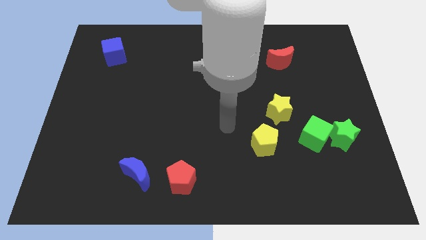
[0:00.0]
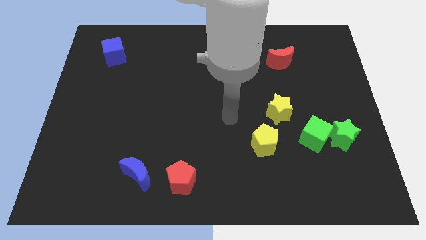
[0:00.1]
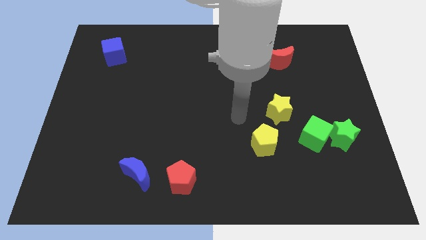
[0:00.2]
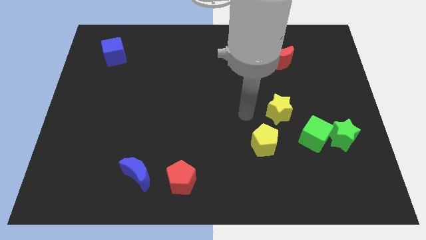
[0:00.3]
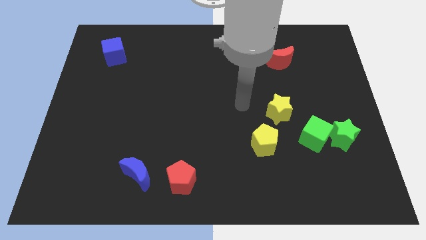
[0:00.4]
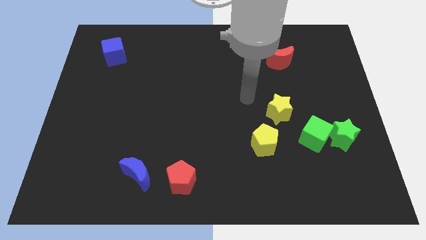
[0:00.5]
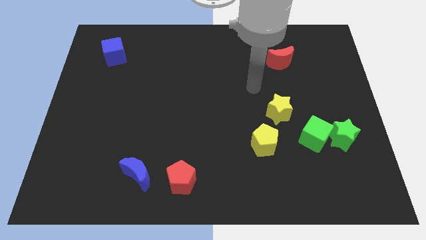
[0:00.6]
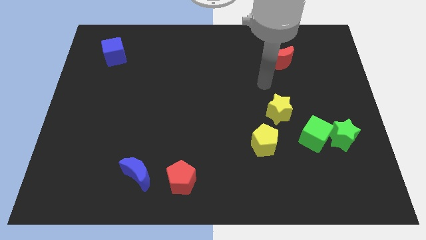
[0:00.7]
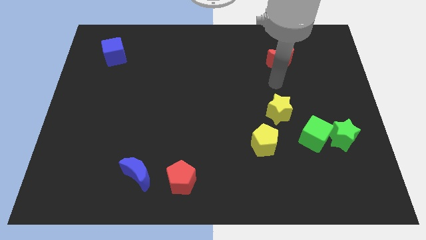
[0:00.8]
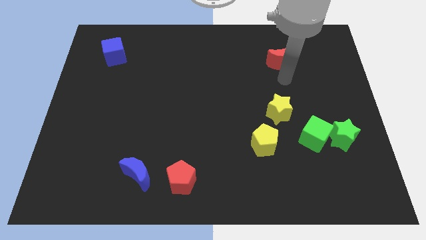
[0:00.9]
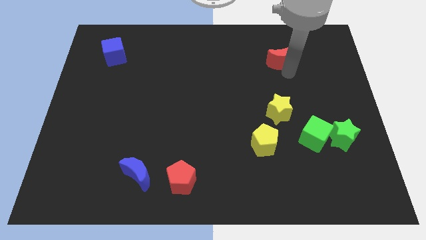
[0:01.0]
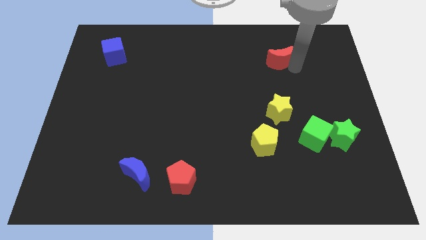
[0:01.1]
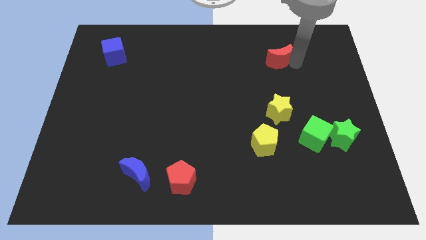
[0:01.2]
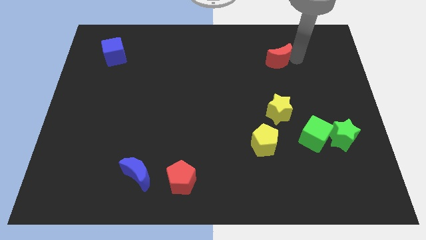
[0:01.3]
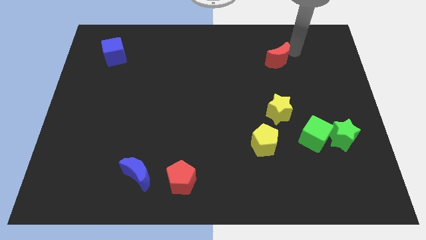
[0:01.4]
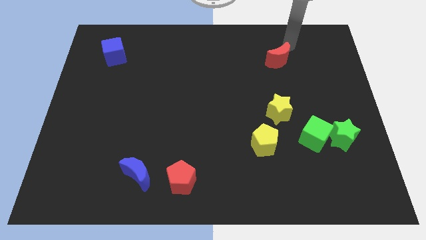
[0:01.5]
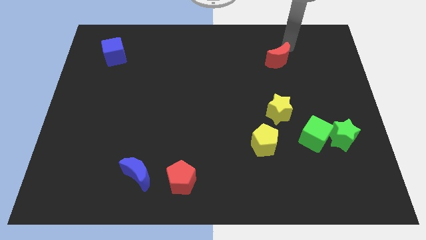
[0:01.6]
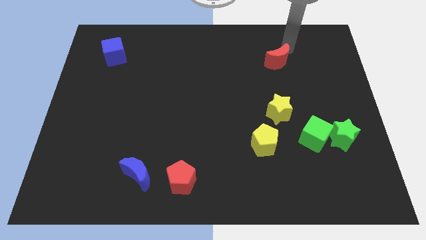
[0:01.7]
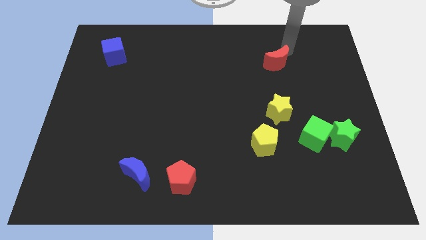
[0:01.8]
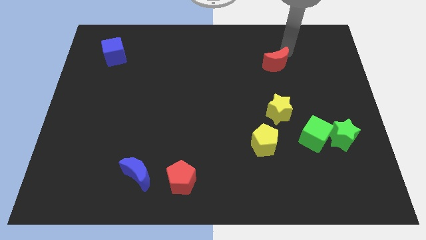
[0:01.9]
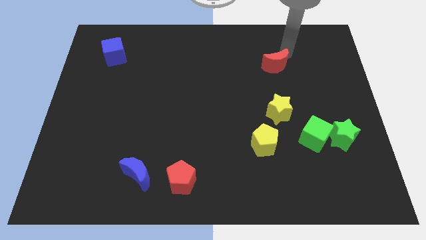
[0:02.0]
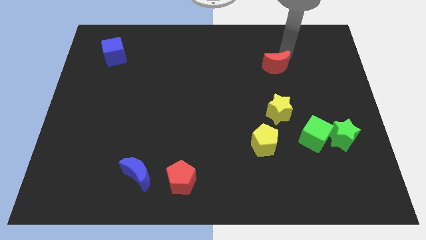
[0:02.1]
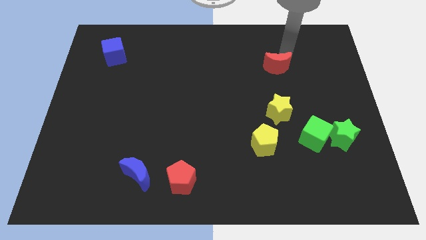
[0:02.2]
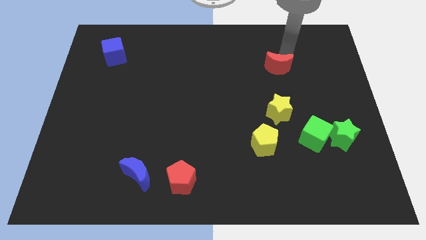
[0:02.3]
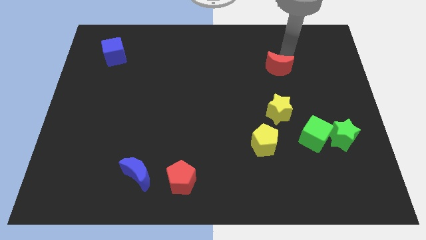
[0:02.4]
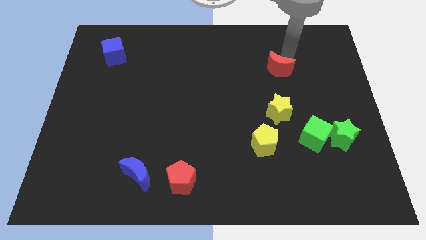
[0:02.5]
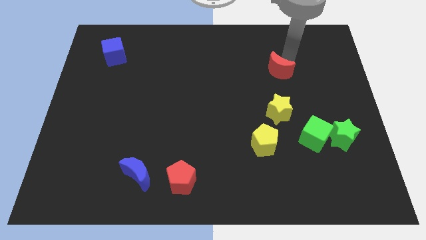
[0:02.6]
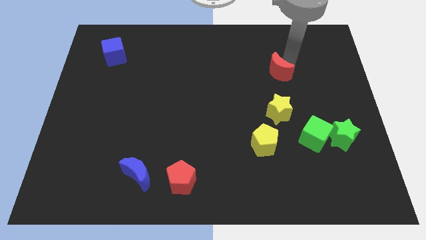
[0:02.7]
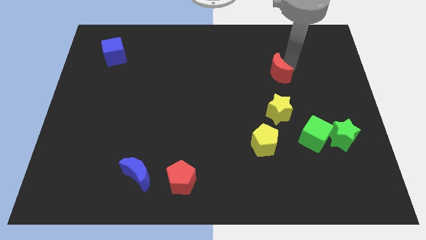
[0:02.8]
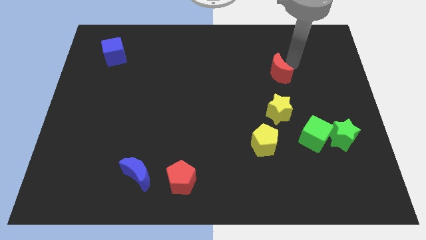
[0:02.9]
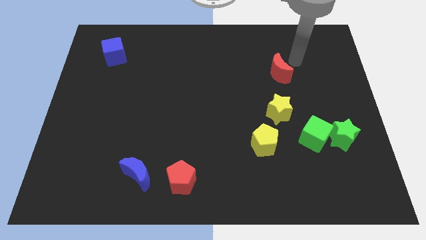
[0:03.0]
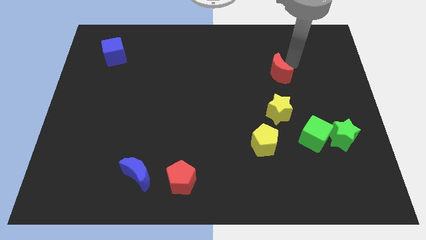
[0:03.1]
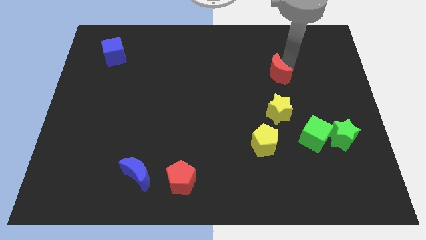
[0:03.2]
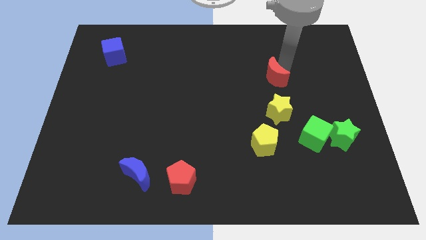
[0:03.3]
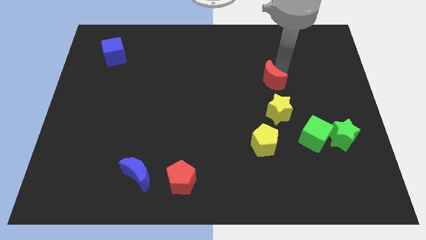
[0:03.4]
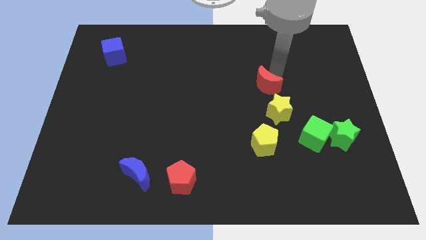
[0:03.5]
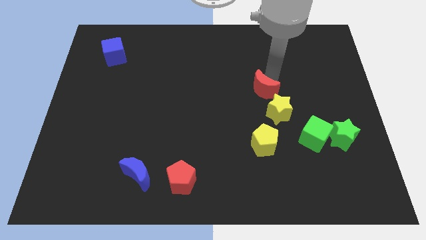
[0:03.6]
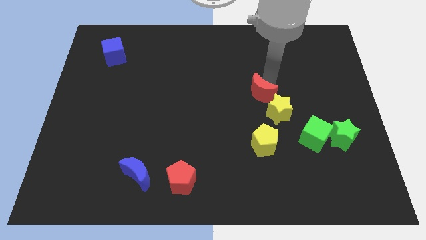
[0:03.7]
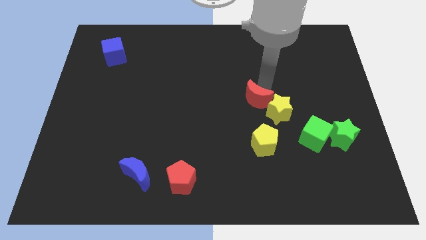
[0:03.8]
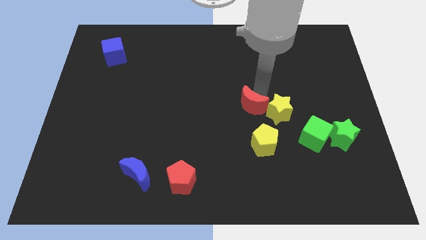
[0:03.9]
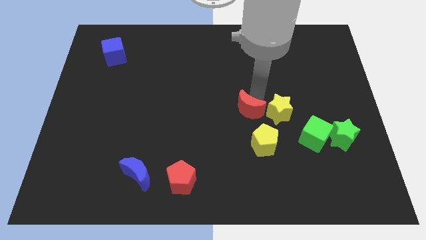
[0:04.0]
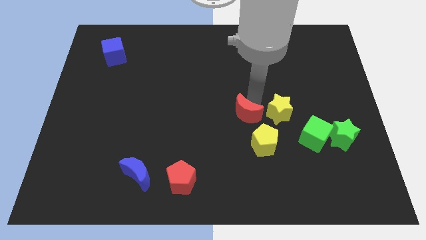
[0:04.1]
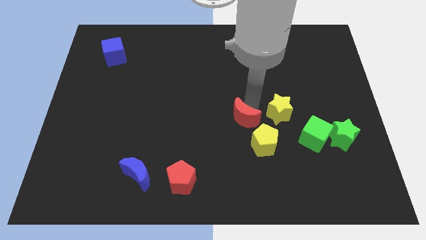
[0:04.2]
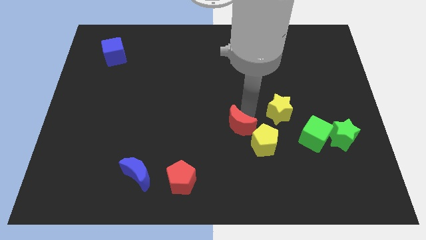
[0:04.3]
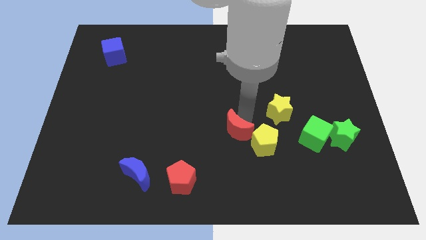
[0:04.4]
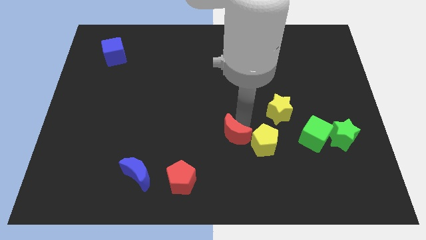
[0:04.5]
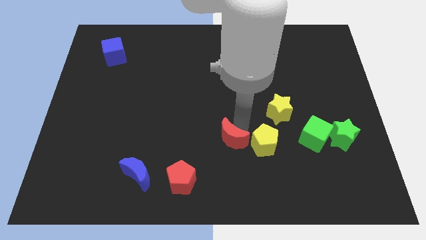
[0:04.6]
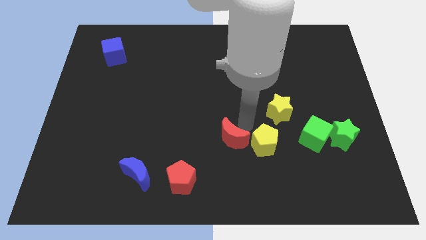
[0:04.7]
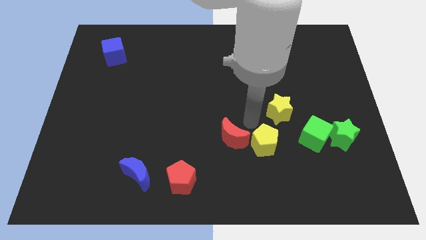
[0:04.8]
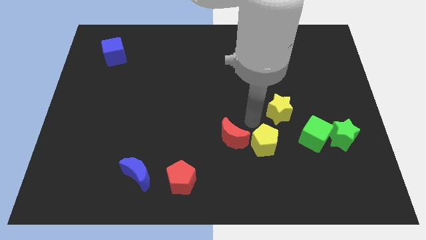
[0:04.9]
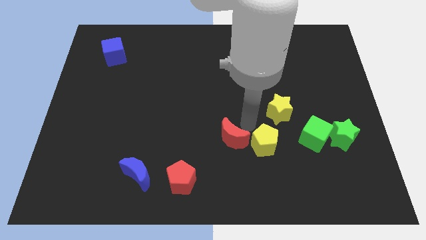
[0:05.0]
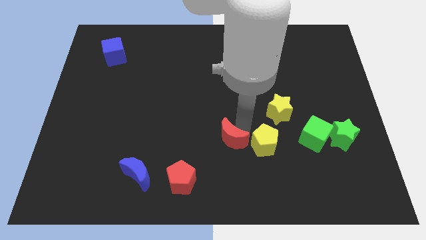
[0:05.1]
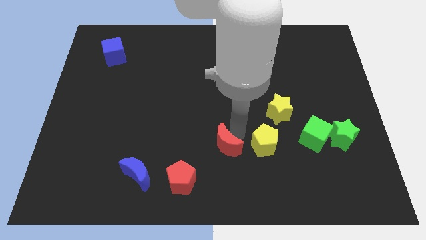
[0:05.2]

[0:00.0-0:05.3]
push the red moon diagonally up and to the right of the red pentagon
